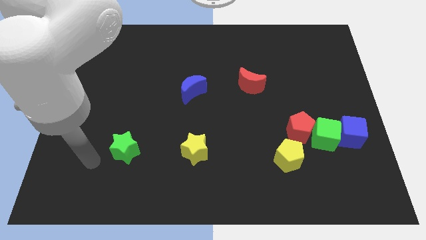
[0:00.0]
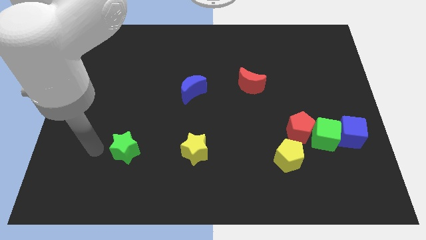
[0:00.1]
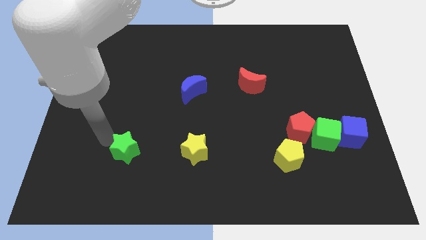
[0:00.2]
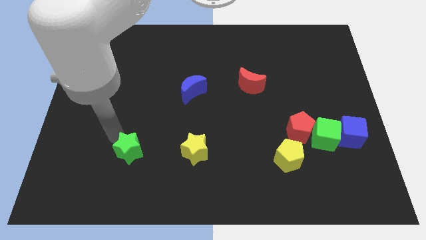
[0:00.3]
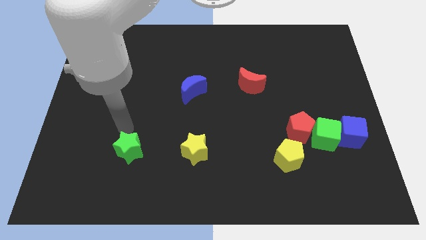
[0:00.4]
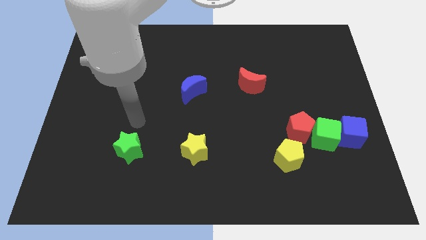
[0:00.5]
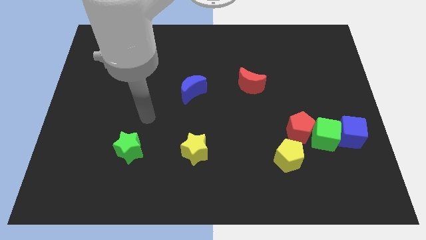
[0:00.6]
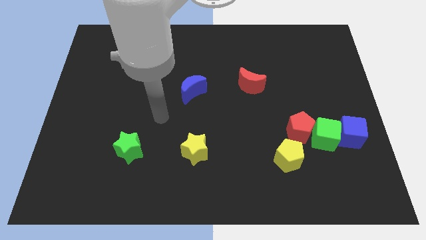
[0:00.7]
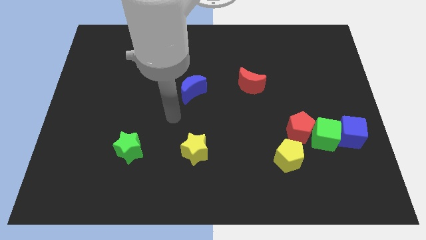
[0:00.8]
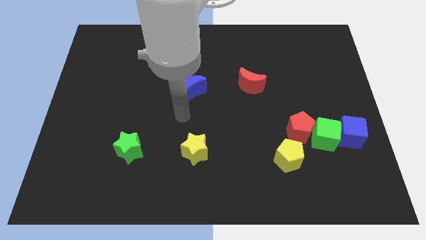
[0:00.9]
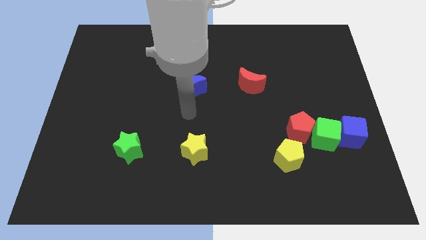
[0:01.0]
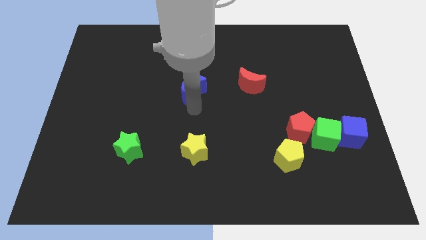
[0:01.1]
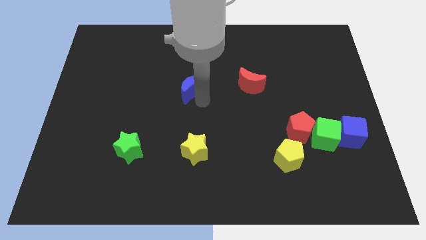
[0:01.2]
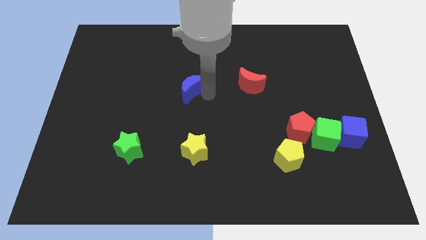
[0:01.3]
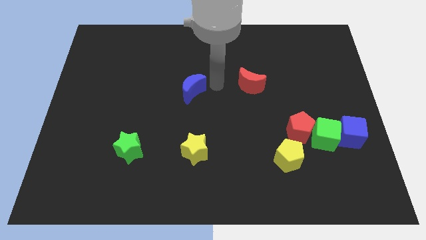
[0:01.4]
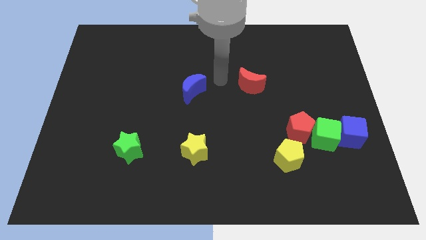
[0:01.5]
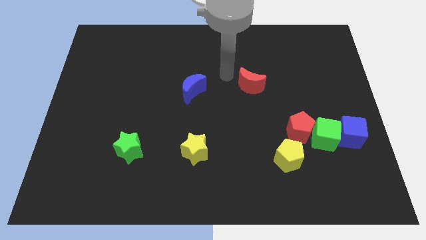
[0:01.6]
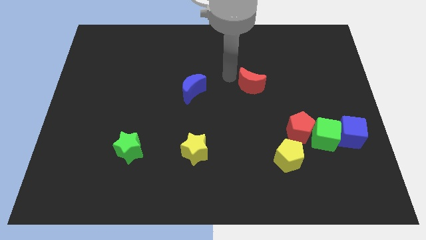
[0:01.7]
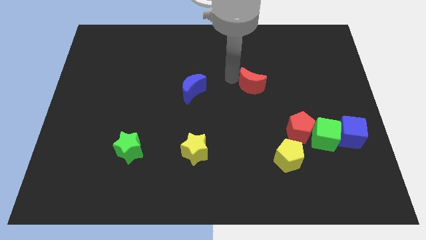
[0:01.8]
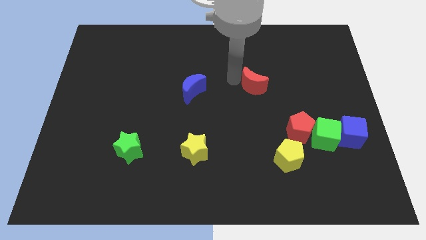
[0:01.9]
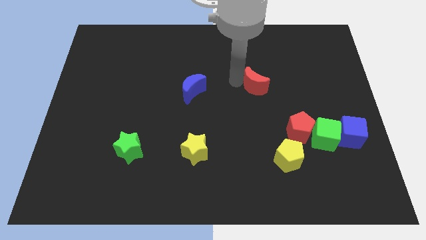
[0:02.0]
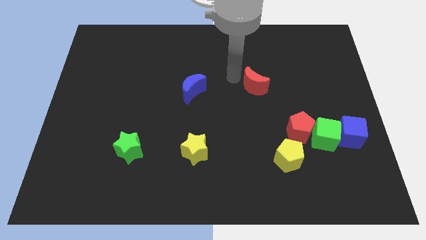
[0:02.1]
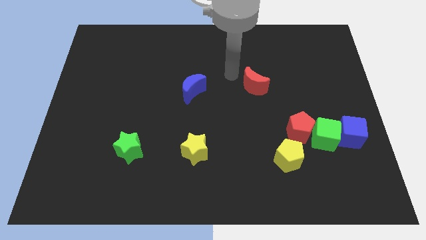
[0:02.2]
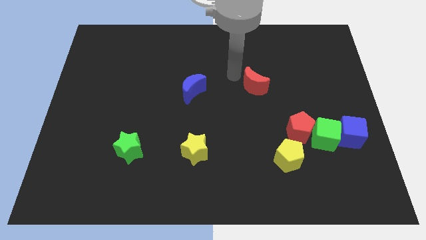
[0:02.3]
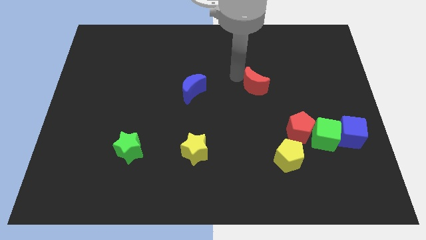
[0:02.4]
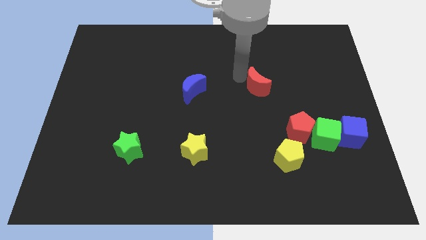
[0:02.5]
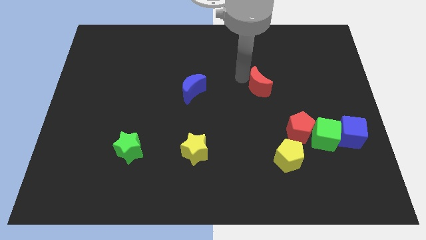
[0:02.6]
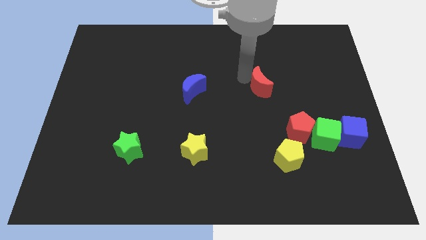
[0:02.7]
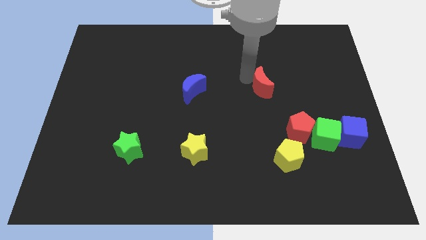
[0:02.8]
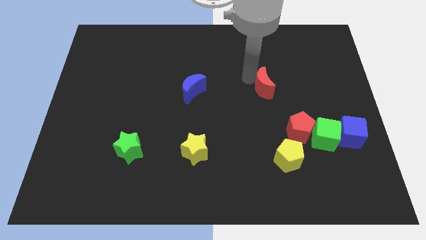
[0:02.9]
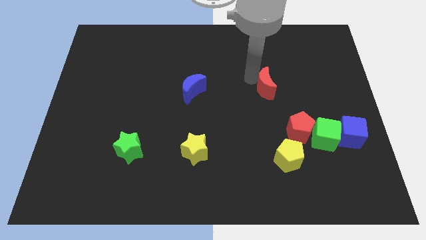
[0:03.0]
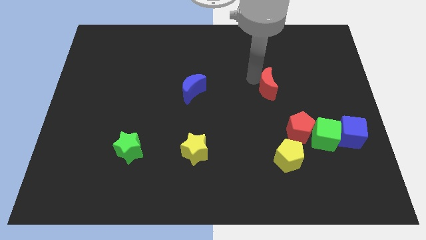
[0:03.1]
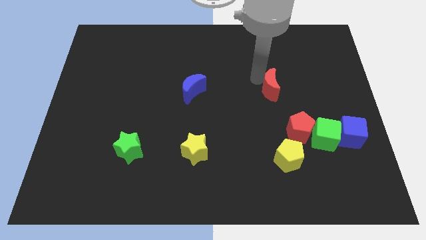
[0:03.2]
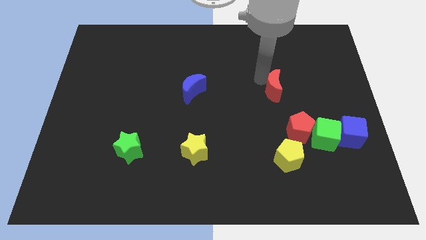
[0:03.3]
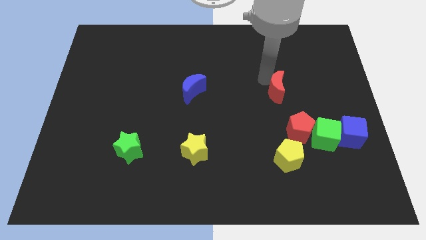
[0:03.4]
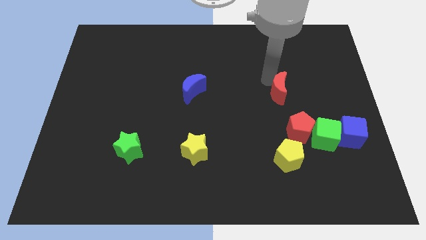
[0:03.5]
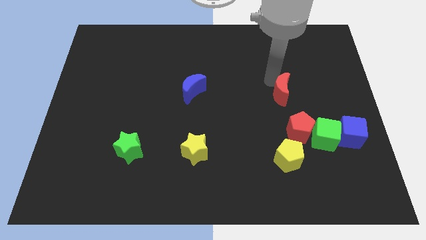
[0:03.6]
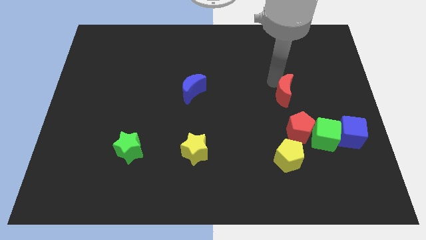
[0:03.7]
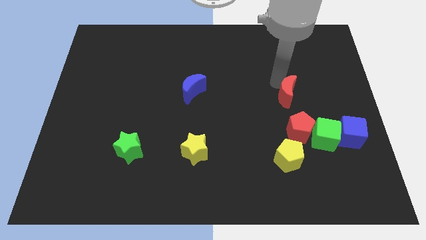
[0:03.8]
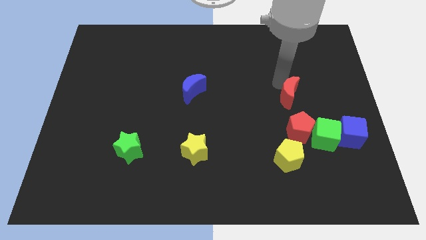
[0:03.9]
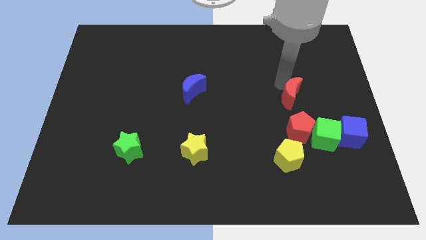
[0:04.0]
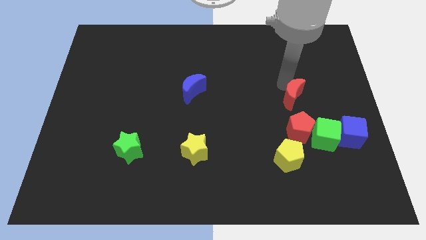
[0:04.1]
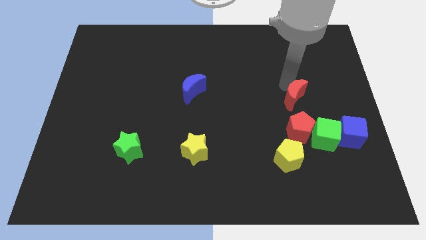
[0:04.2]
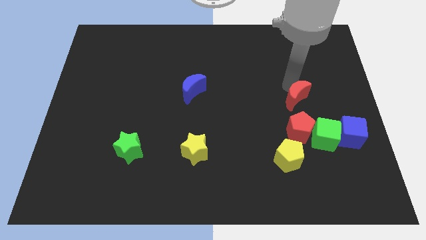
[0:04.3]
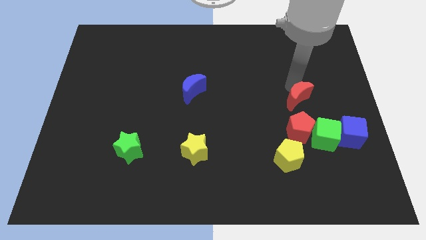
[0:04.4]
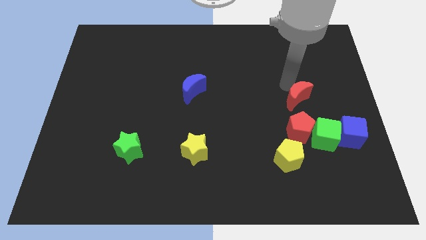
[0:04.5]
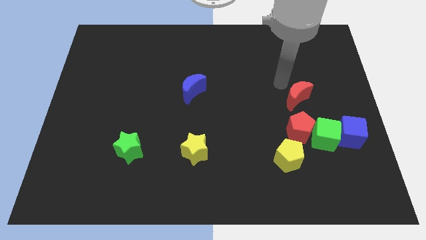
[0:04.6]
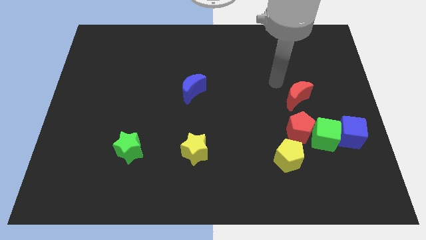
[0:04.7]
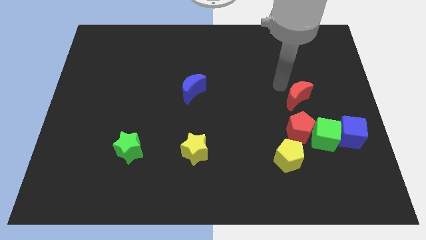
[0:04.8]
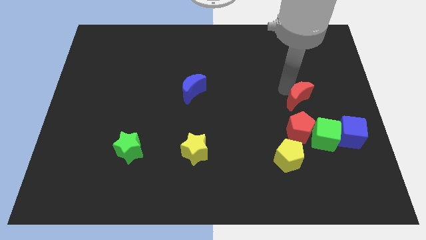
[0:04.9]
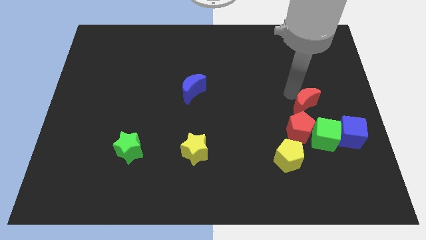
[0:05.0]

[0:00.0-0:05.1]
move the red moon diagonally up and to the left of the blue cube

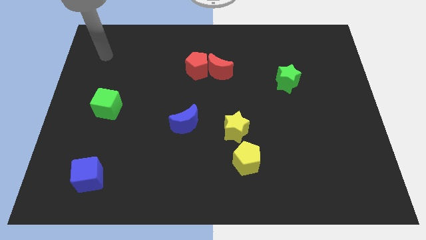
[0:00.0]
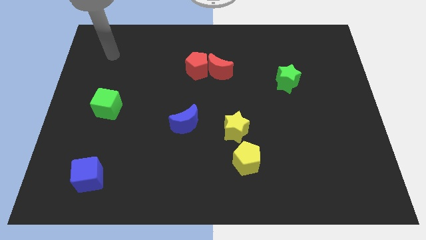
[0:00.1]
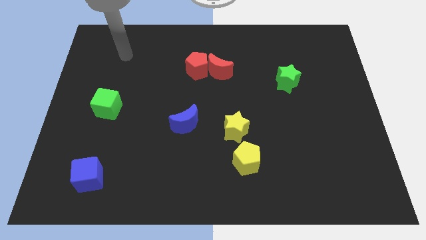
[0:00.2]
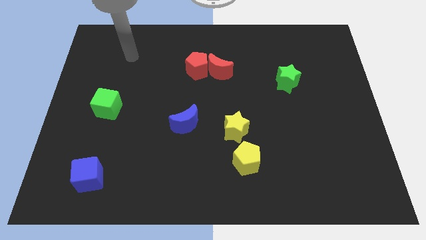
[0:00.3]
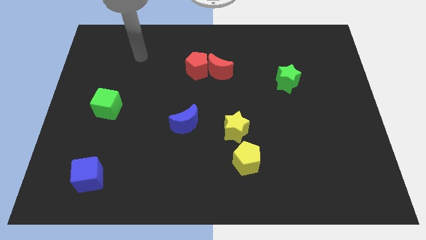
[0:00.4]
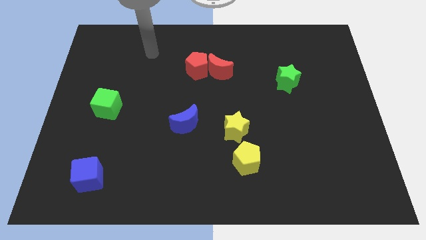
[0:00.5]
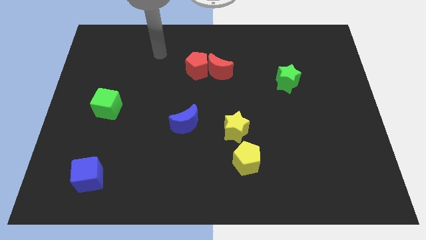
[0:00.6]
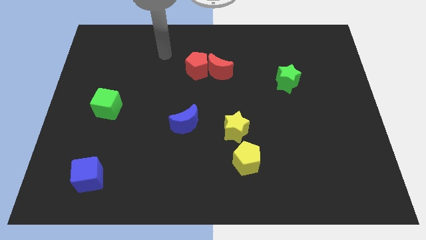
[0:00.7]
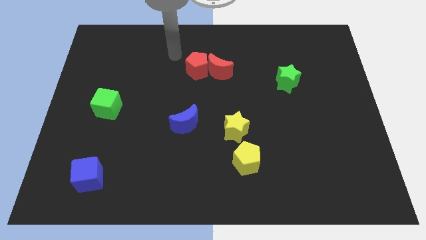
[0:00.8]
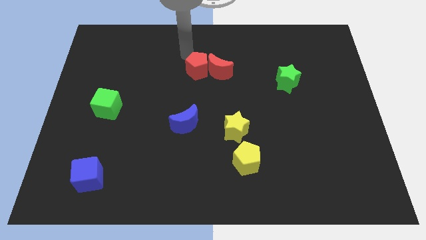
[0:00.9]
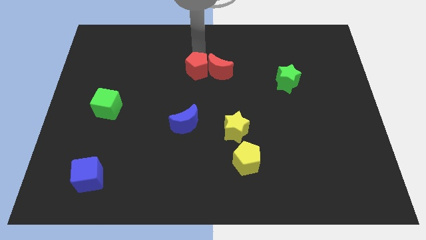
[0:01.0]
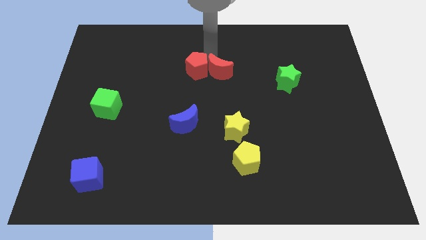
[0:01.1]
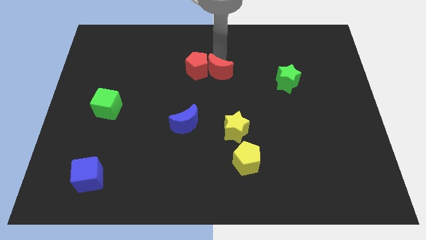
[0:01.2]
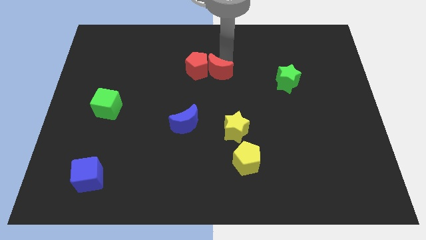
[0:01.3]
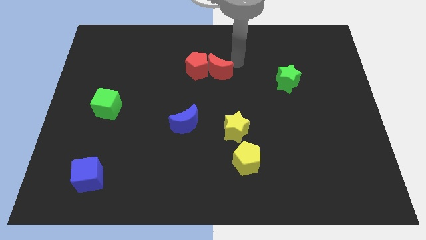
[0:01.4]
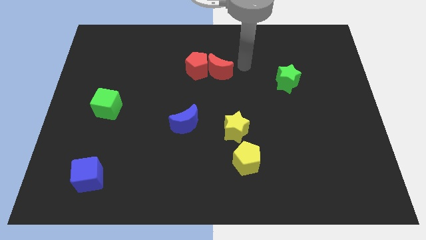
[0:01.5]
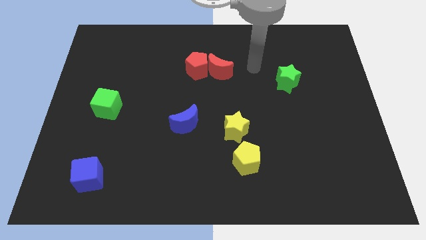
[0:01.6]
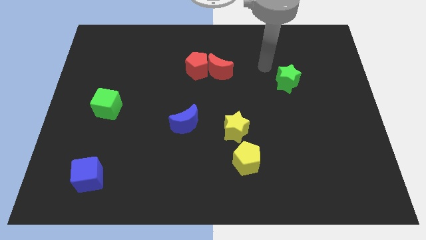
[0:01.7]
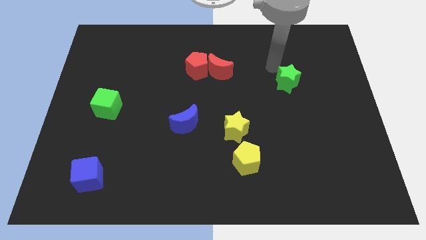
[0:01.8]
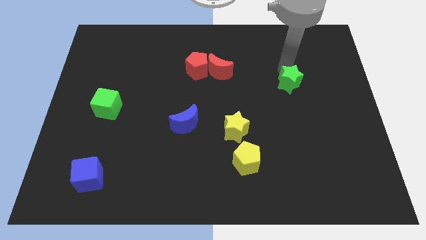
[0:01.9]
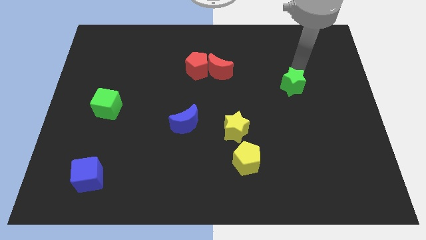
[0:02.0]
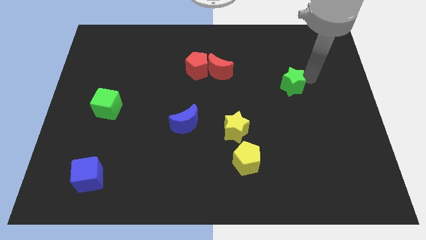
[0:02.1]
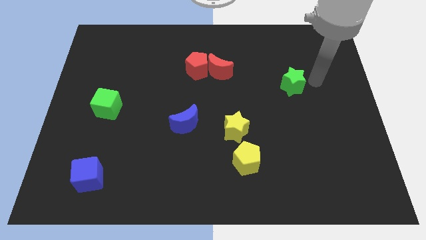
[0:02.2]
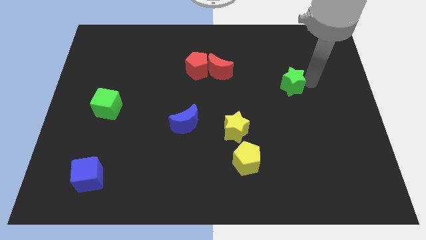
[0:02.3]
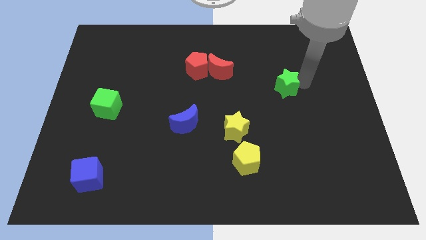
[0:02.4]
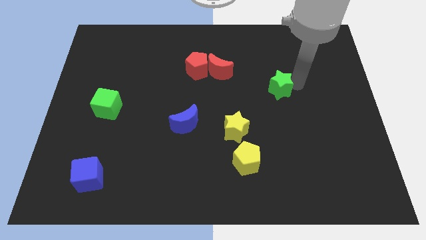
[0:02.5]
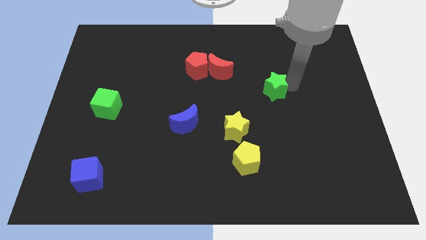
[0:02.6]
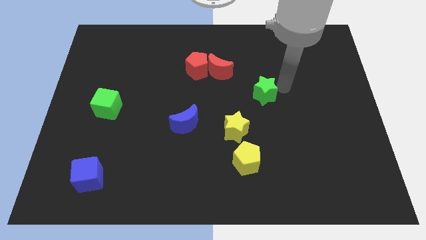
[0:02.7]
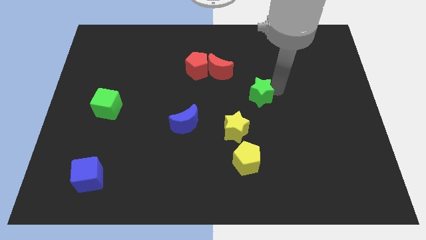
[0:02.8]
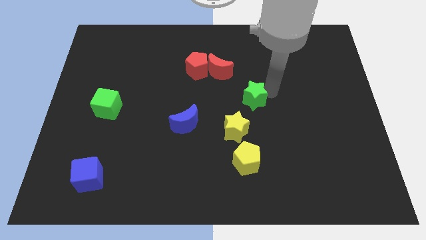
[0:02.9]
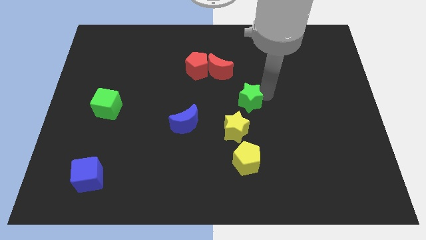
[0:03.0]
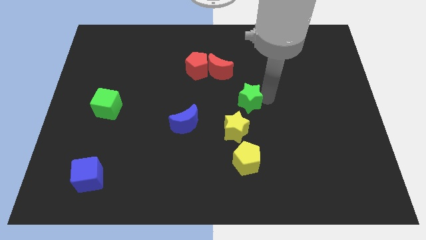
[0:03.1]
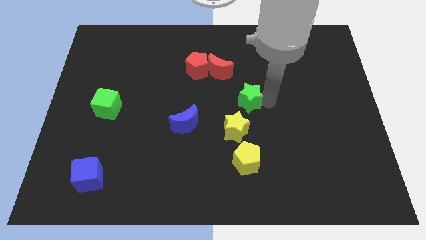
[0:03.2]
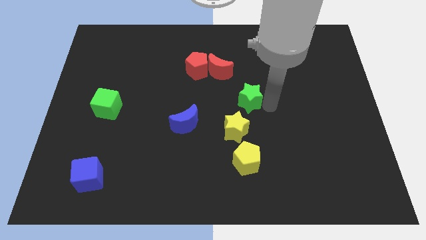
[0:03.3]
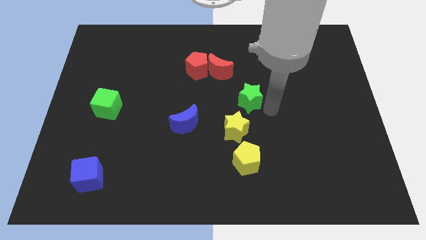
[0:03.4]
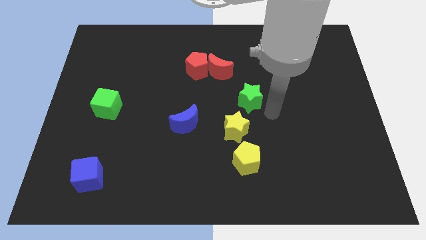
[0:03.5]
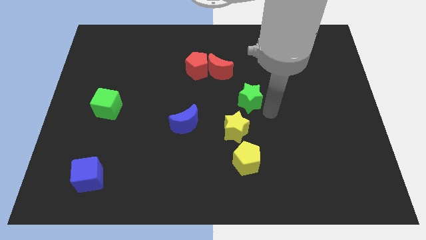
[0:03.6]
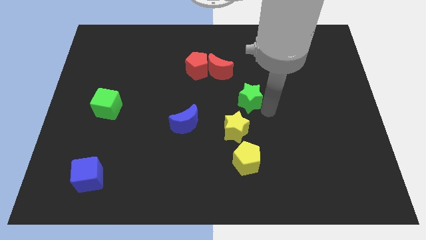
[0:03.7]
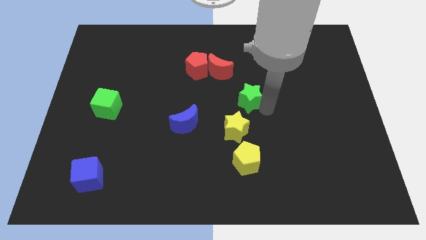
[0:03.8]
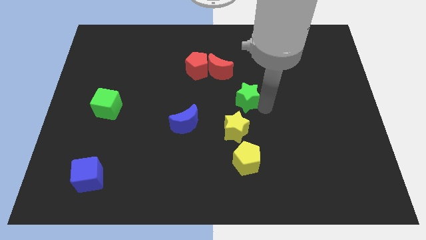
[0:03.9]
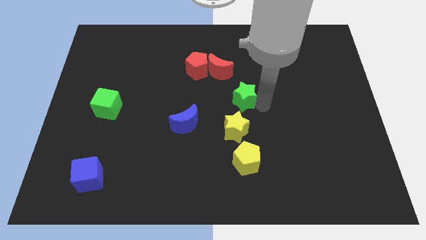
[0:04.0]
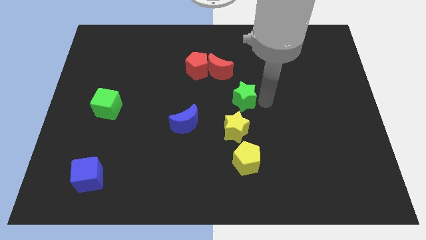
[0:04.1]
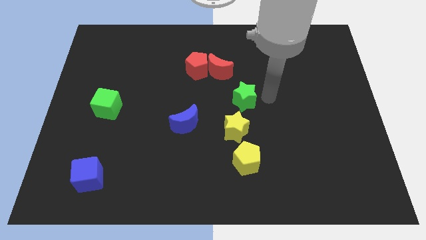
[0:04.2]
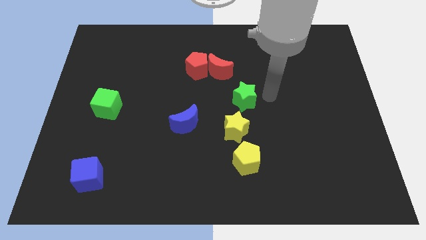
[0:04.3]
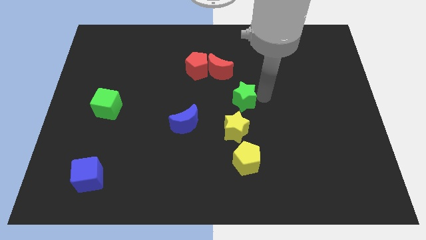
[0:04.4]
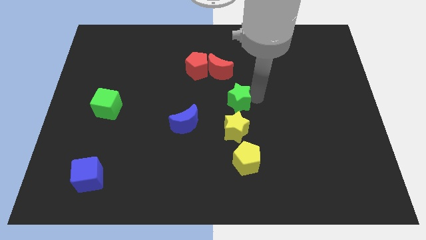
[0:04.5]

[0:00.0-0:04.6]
push the green star below the red moon
